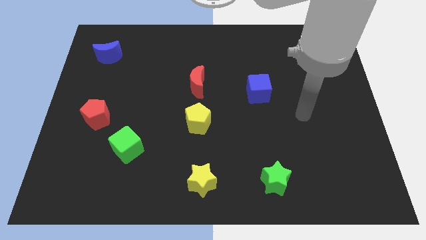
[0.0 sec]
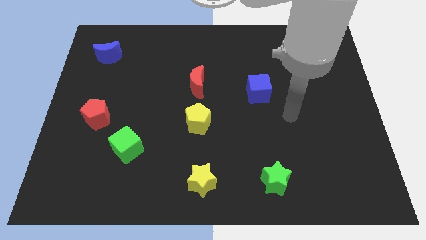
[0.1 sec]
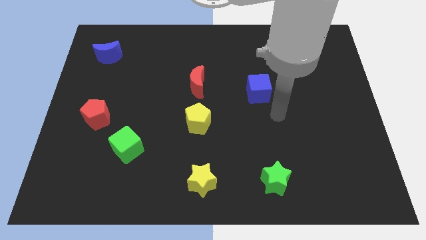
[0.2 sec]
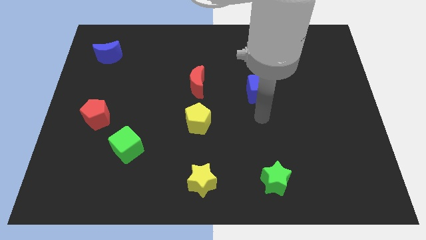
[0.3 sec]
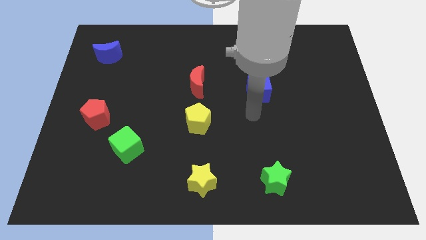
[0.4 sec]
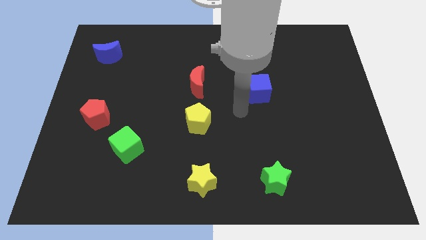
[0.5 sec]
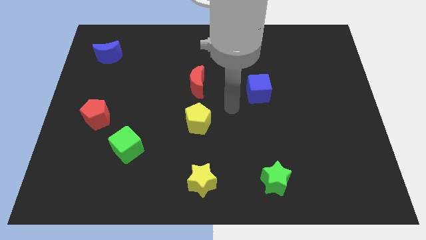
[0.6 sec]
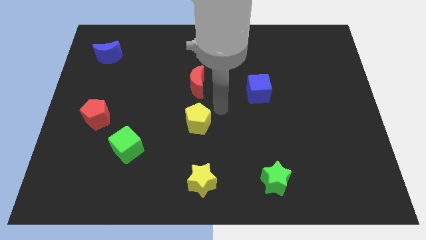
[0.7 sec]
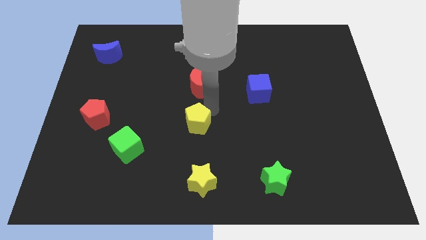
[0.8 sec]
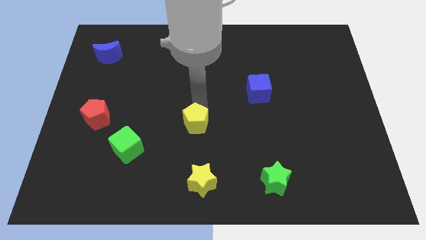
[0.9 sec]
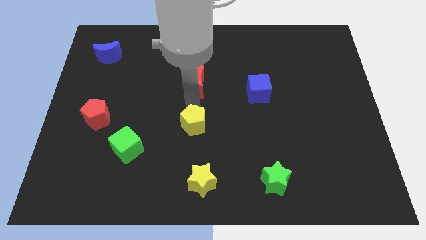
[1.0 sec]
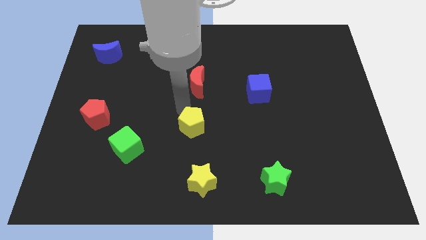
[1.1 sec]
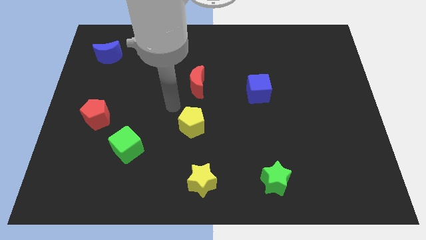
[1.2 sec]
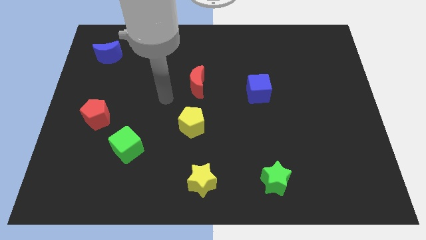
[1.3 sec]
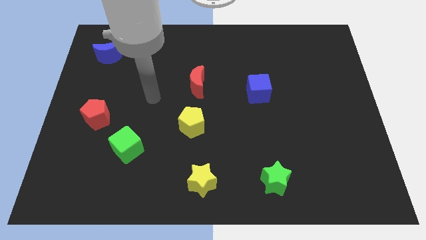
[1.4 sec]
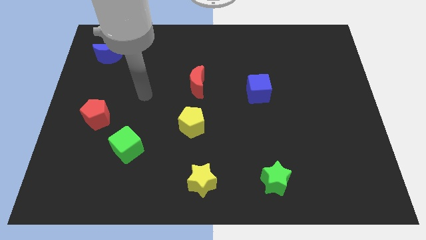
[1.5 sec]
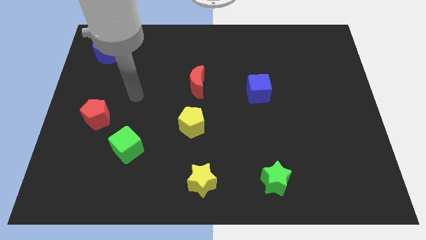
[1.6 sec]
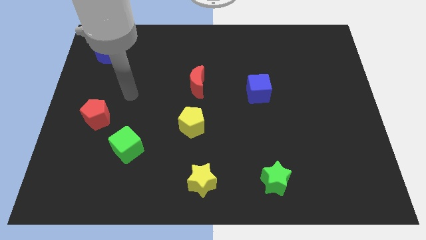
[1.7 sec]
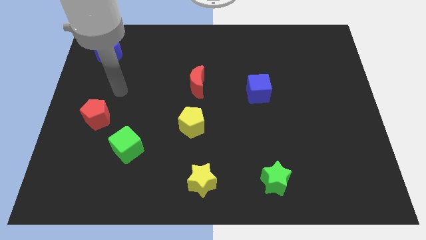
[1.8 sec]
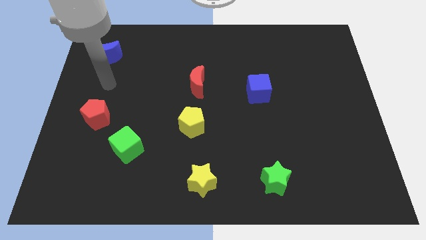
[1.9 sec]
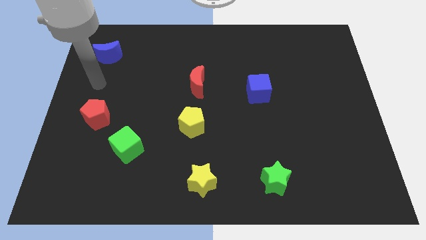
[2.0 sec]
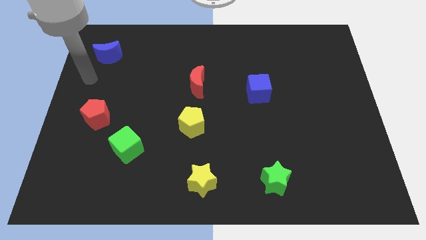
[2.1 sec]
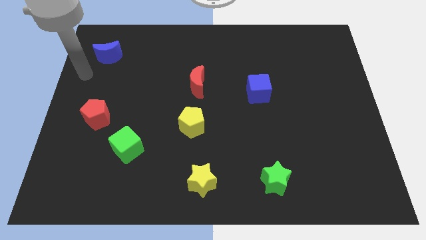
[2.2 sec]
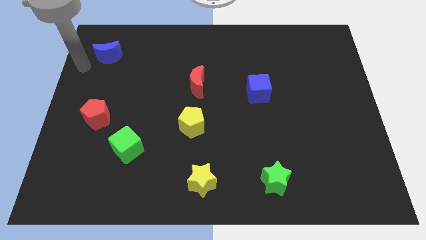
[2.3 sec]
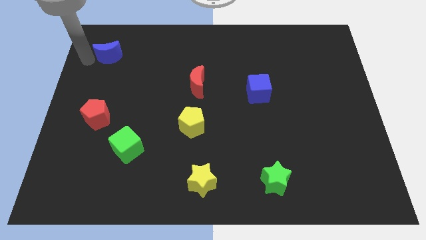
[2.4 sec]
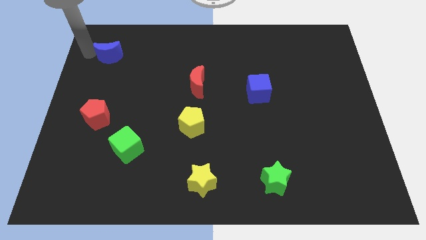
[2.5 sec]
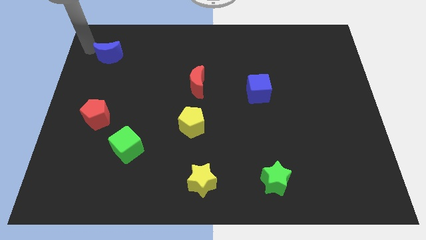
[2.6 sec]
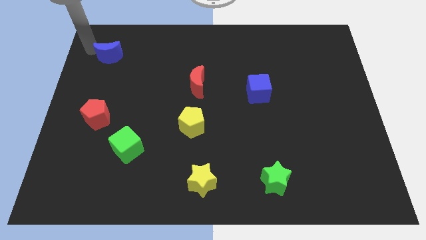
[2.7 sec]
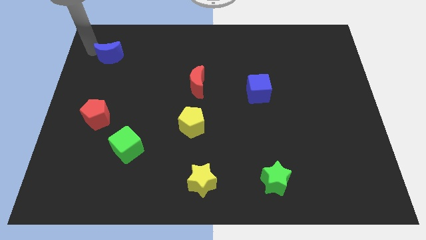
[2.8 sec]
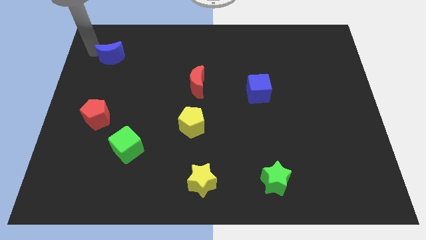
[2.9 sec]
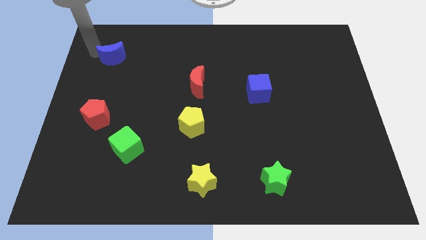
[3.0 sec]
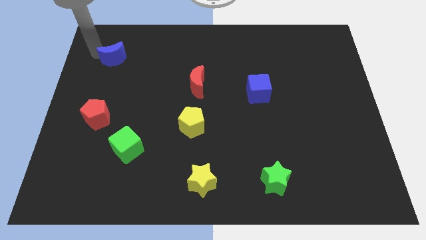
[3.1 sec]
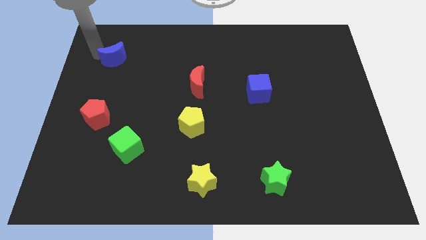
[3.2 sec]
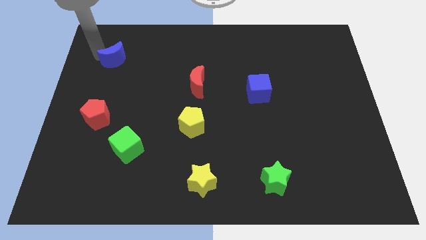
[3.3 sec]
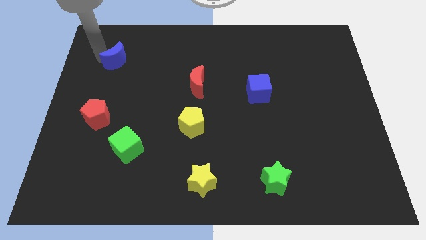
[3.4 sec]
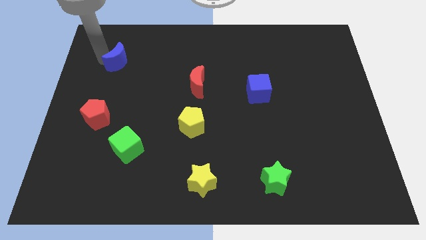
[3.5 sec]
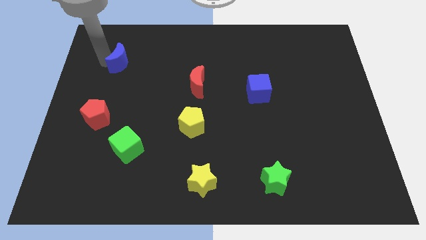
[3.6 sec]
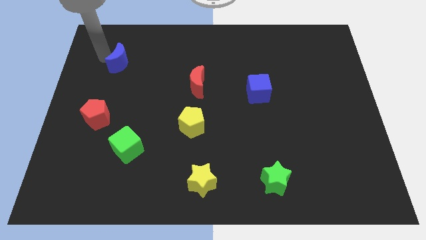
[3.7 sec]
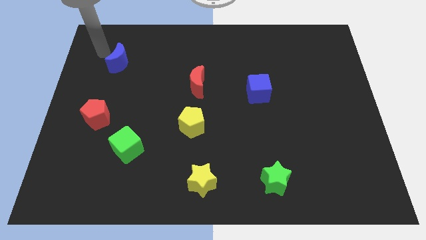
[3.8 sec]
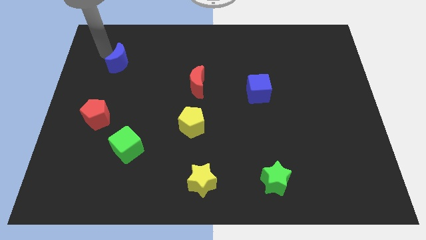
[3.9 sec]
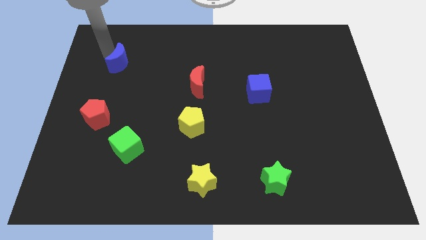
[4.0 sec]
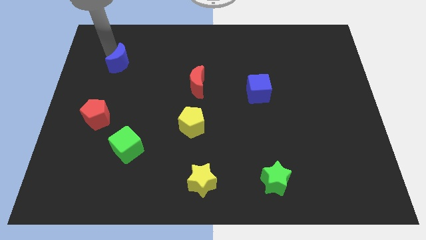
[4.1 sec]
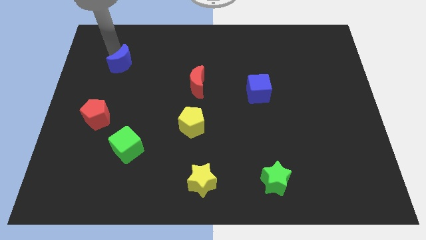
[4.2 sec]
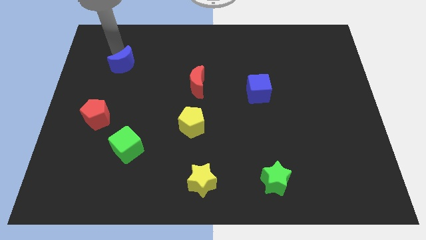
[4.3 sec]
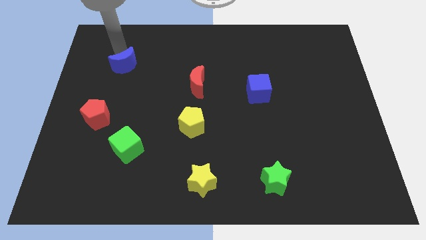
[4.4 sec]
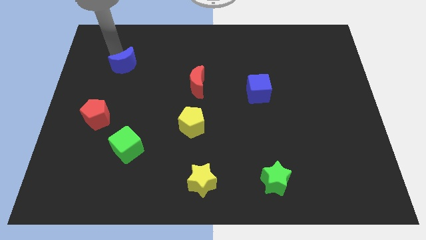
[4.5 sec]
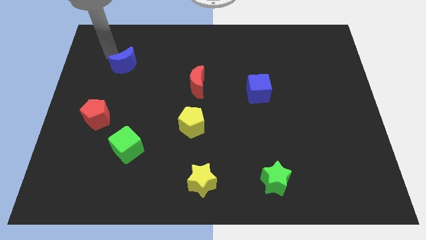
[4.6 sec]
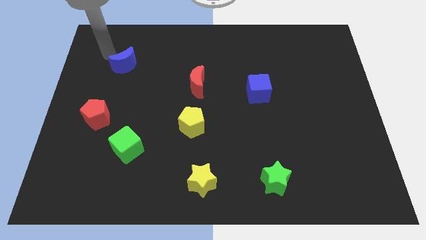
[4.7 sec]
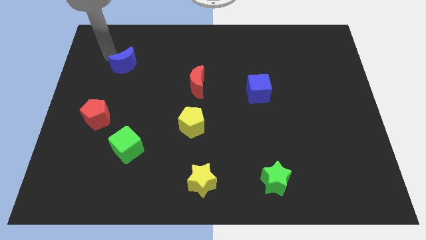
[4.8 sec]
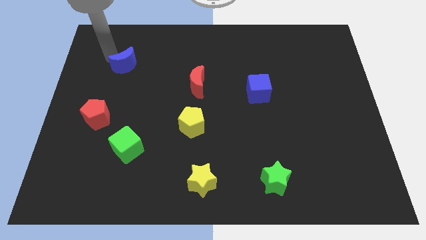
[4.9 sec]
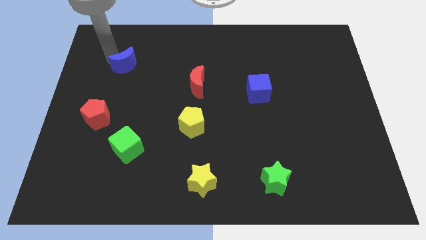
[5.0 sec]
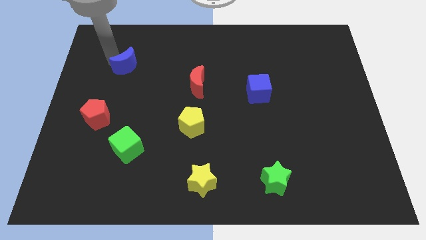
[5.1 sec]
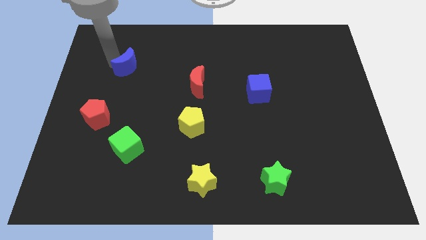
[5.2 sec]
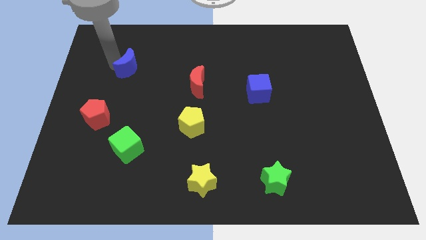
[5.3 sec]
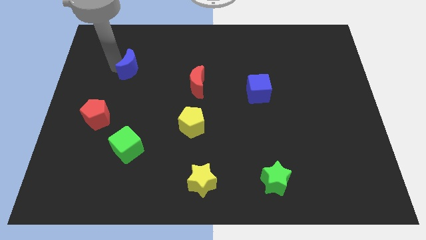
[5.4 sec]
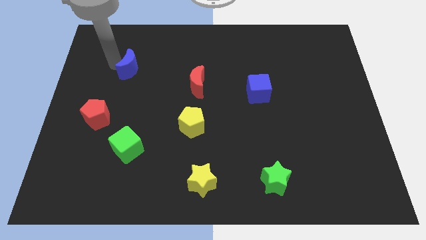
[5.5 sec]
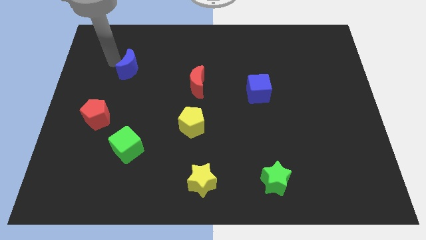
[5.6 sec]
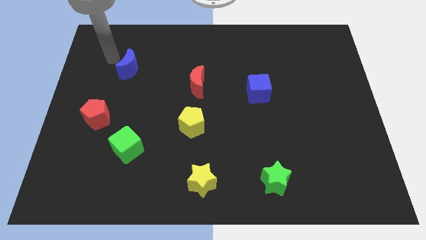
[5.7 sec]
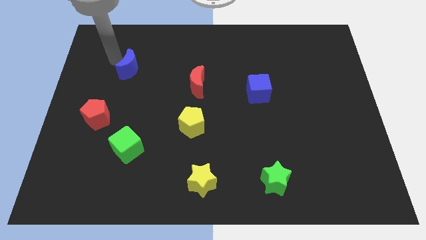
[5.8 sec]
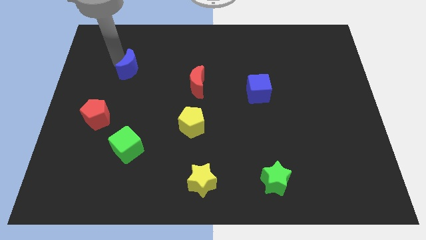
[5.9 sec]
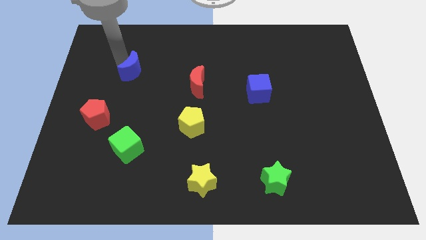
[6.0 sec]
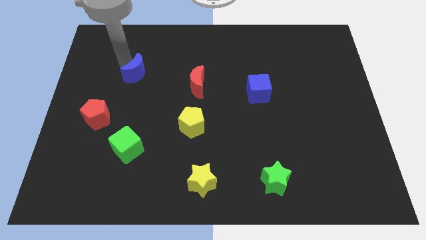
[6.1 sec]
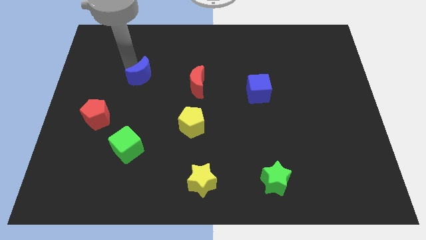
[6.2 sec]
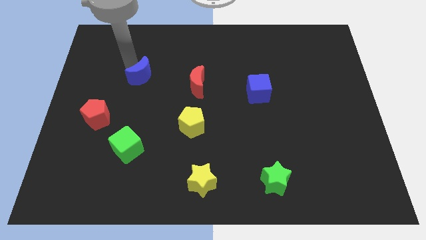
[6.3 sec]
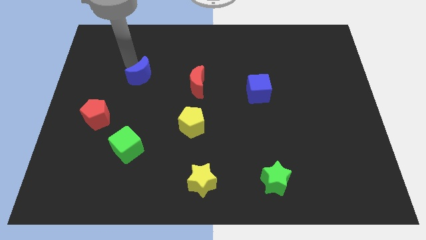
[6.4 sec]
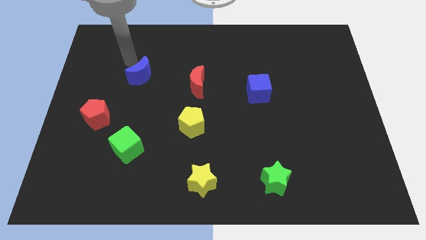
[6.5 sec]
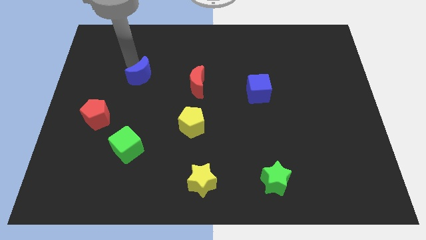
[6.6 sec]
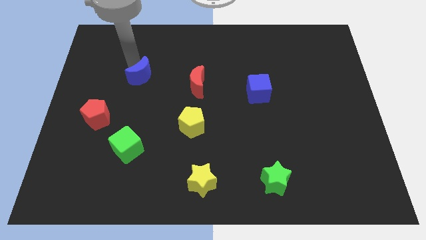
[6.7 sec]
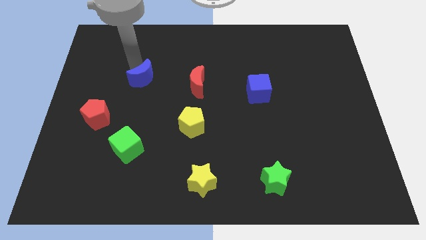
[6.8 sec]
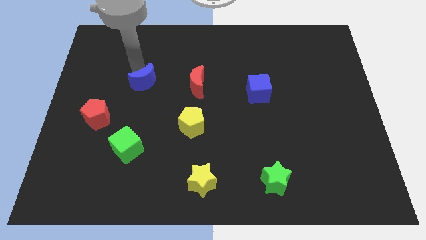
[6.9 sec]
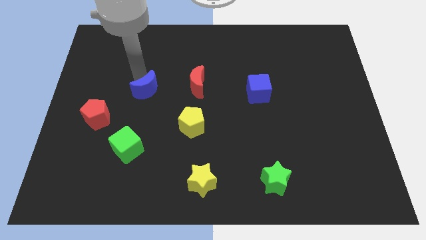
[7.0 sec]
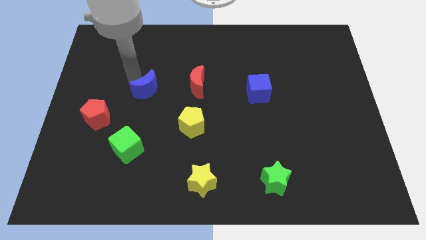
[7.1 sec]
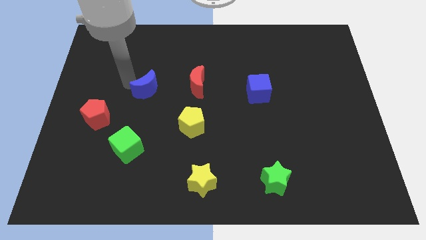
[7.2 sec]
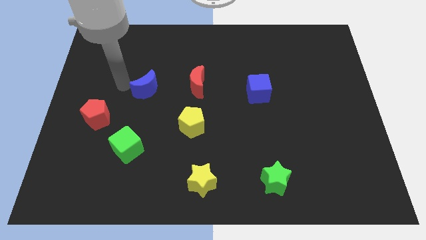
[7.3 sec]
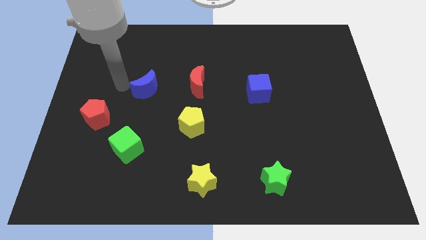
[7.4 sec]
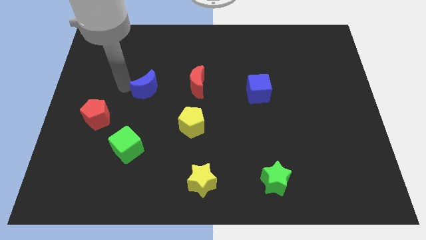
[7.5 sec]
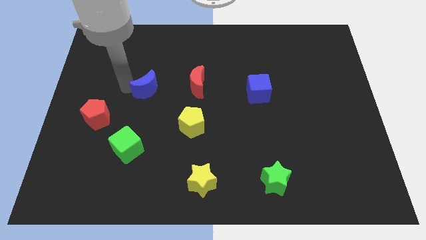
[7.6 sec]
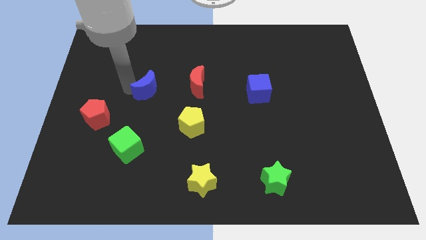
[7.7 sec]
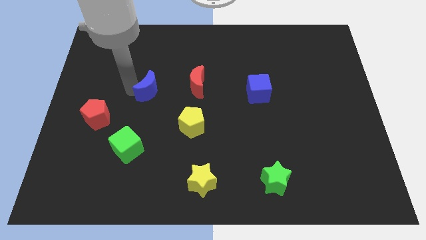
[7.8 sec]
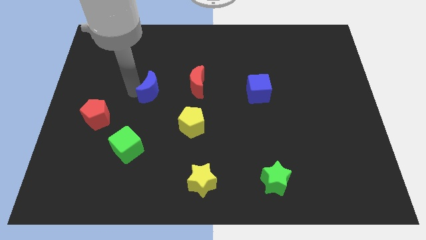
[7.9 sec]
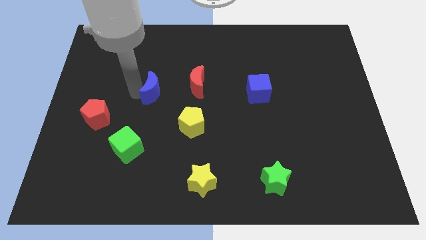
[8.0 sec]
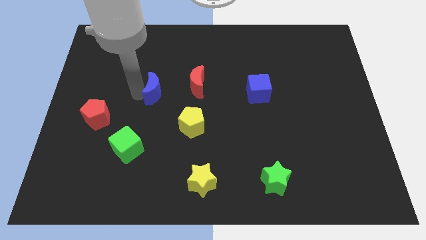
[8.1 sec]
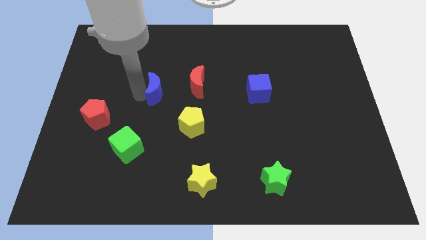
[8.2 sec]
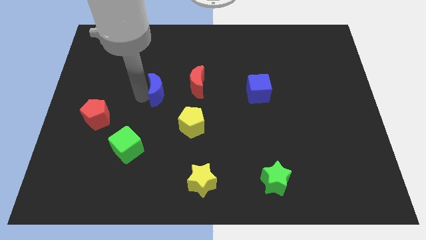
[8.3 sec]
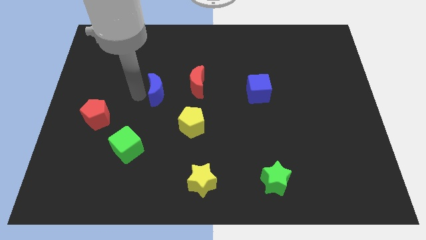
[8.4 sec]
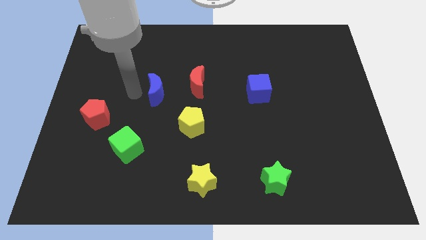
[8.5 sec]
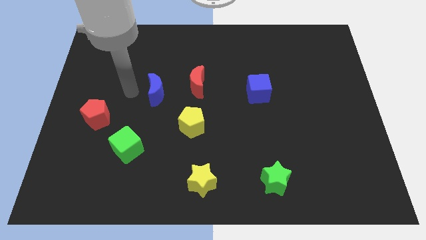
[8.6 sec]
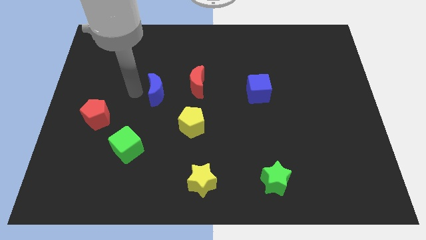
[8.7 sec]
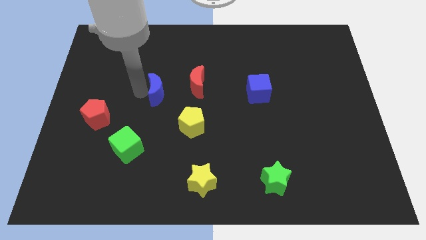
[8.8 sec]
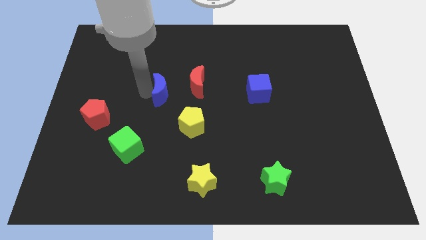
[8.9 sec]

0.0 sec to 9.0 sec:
put the blue moon to the middle
